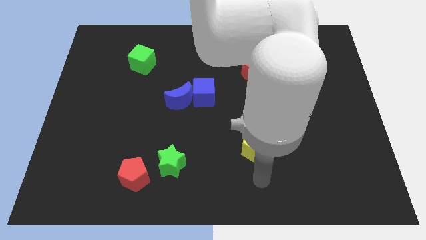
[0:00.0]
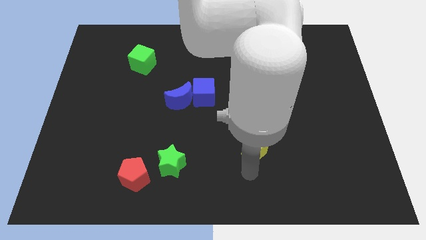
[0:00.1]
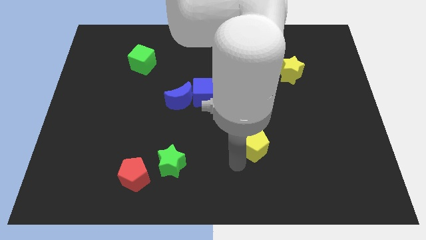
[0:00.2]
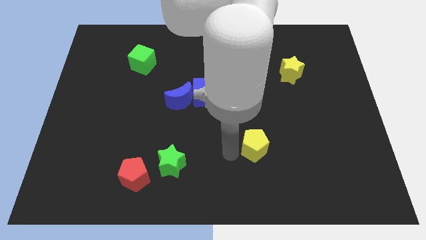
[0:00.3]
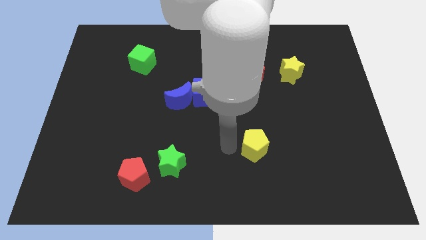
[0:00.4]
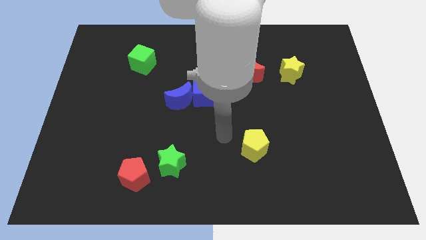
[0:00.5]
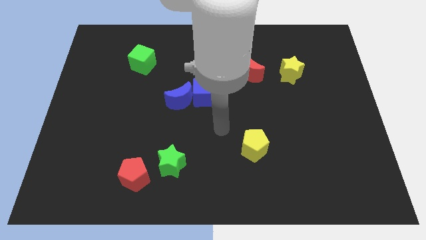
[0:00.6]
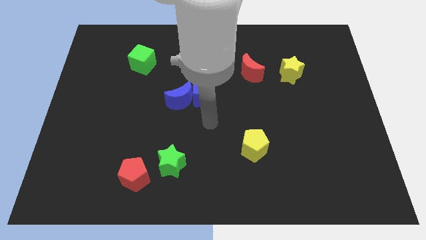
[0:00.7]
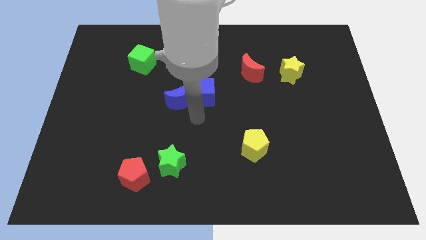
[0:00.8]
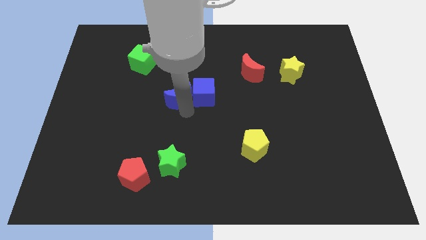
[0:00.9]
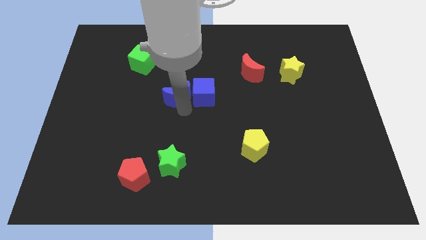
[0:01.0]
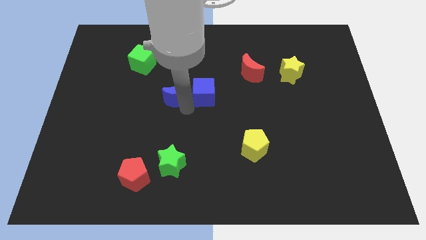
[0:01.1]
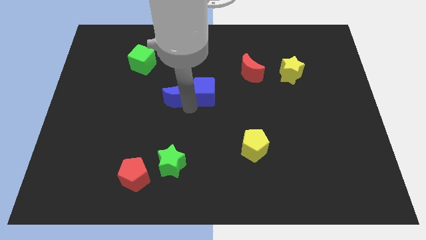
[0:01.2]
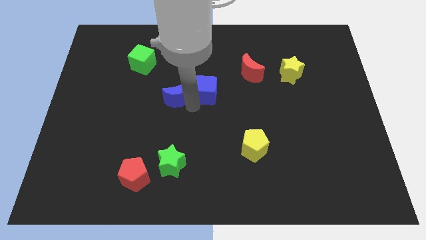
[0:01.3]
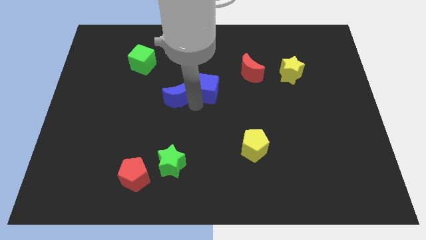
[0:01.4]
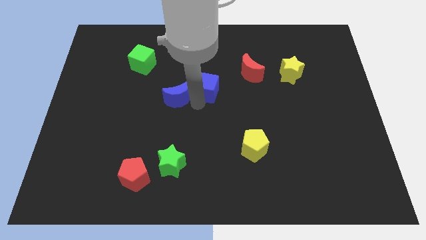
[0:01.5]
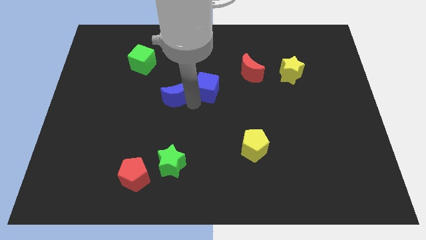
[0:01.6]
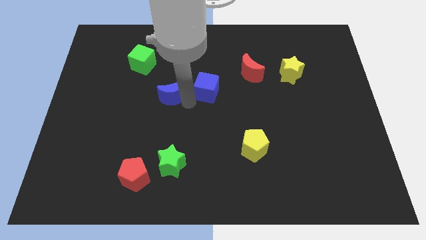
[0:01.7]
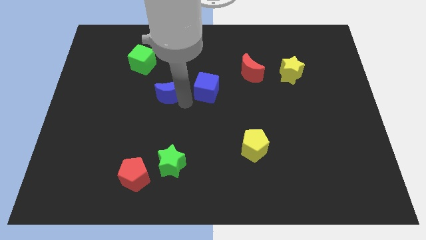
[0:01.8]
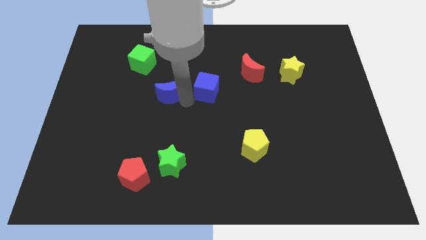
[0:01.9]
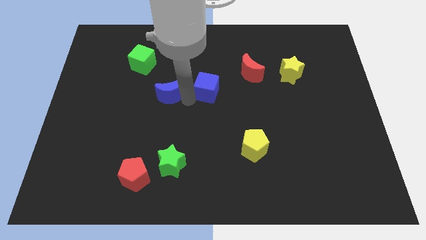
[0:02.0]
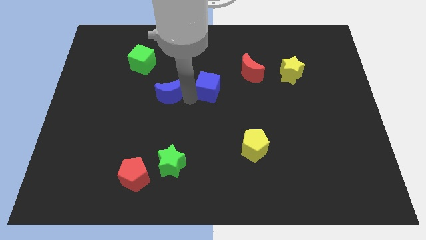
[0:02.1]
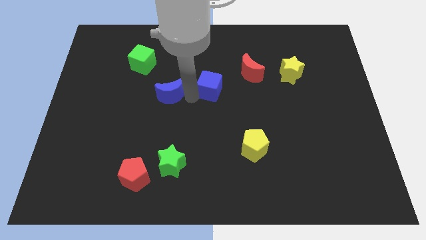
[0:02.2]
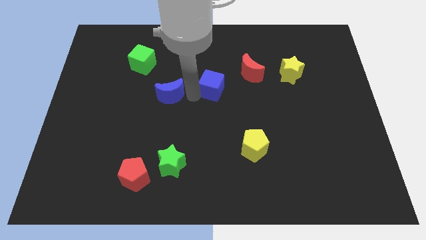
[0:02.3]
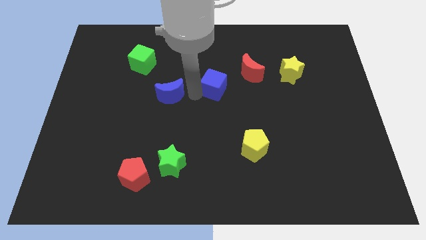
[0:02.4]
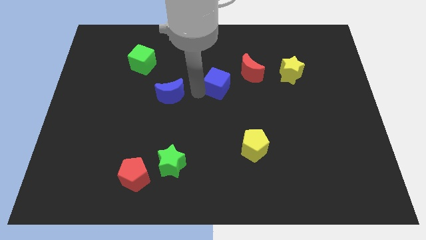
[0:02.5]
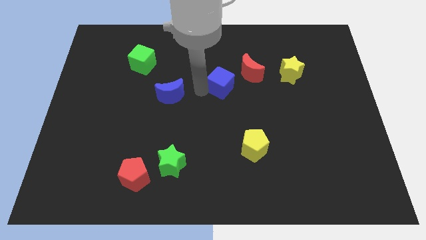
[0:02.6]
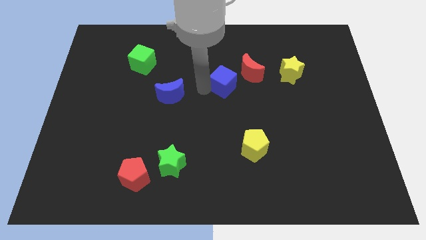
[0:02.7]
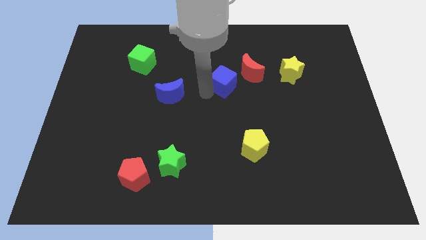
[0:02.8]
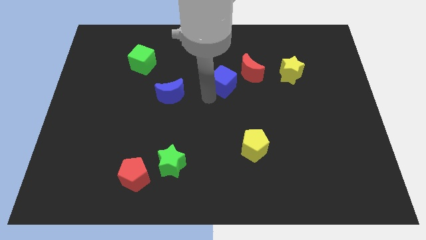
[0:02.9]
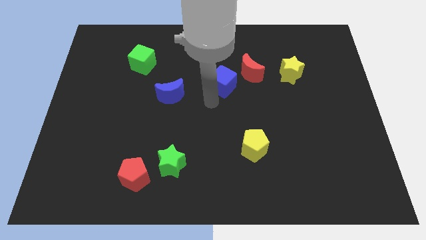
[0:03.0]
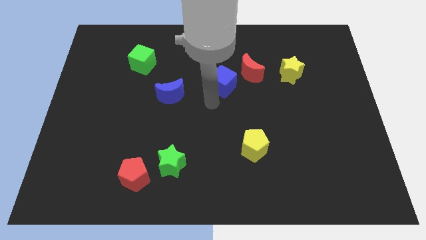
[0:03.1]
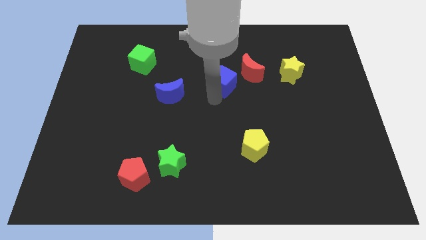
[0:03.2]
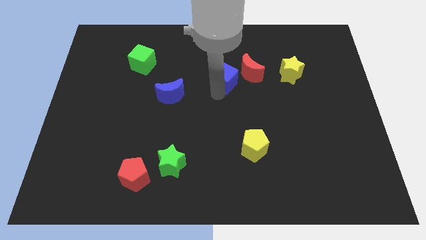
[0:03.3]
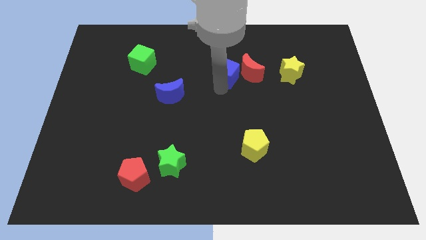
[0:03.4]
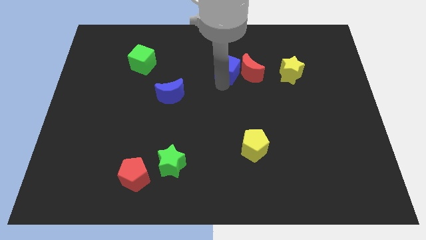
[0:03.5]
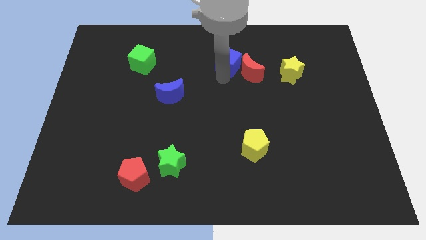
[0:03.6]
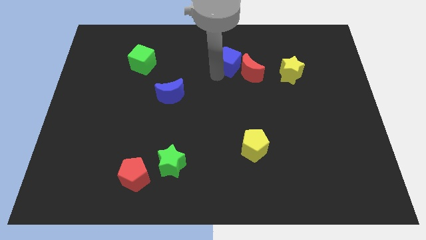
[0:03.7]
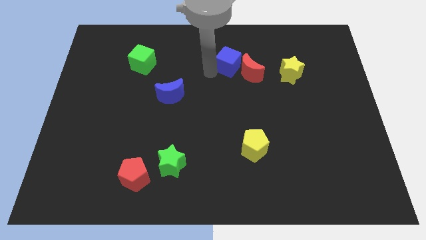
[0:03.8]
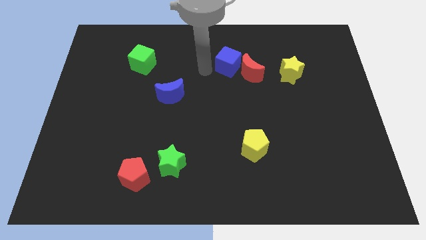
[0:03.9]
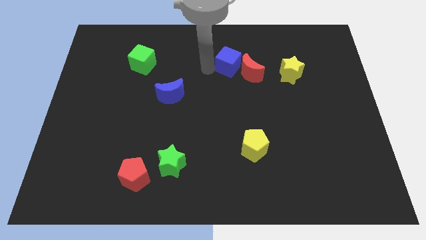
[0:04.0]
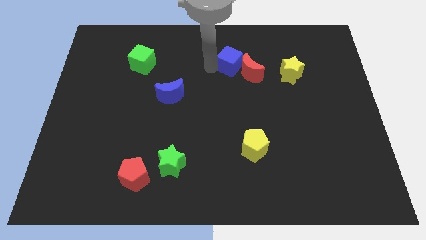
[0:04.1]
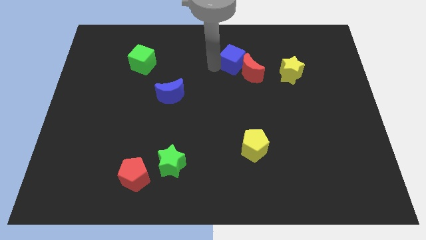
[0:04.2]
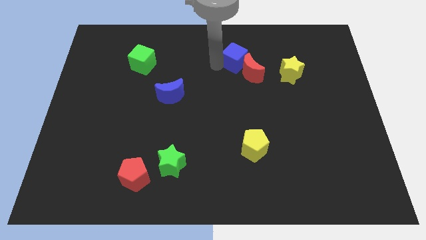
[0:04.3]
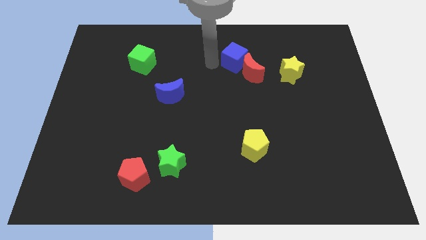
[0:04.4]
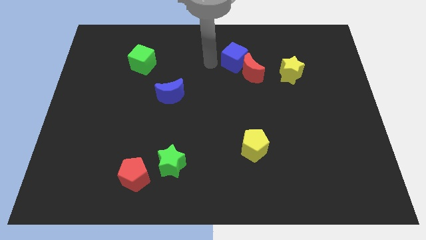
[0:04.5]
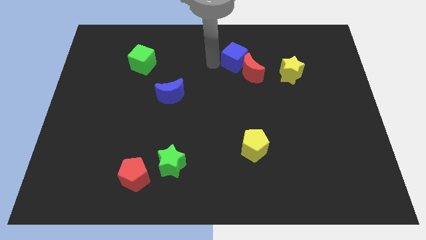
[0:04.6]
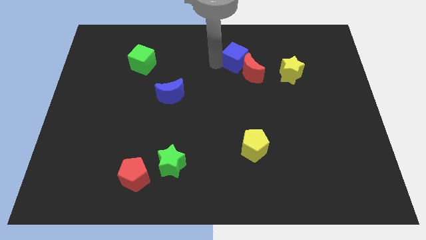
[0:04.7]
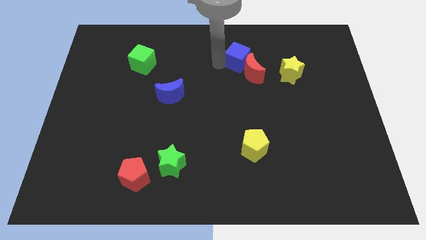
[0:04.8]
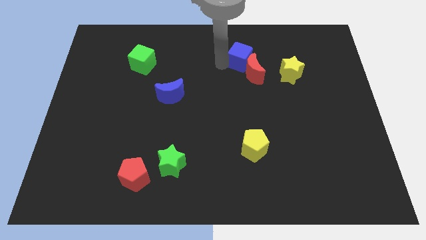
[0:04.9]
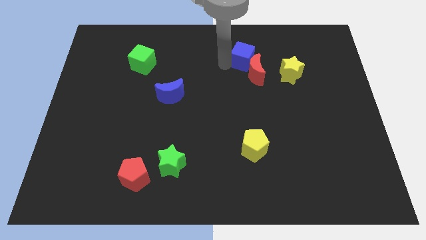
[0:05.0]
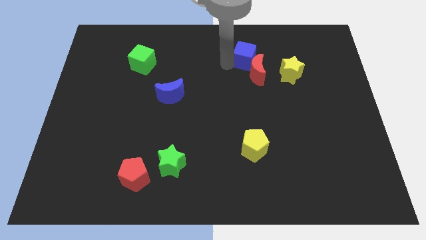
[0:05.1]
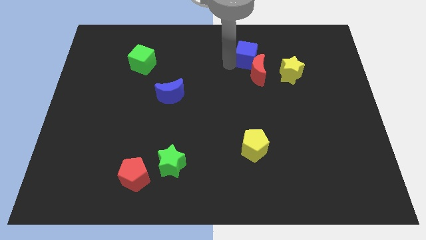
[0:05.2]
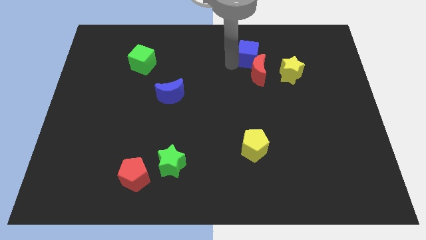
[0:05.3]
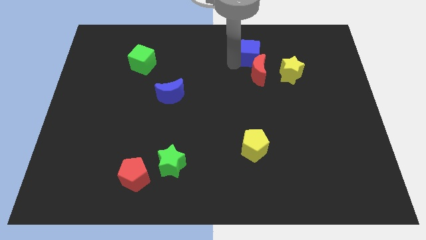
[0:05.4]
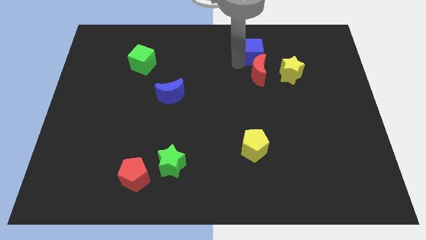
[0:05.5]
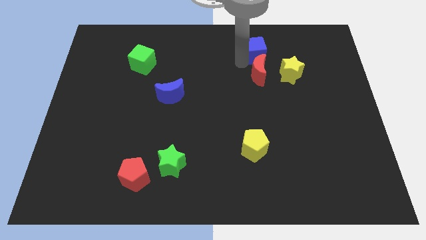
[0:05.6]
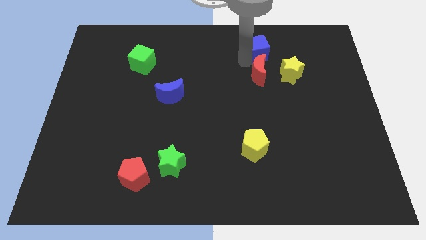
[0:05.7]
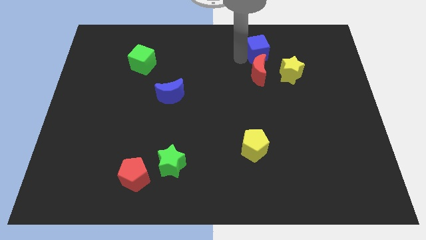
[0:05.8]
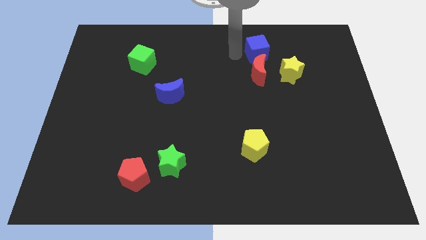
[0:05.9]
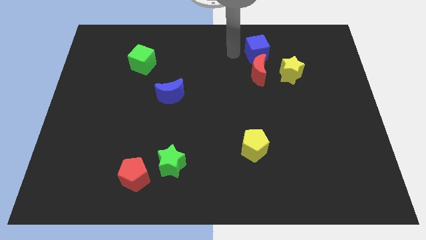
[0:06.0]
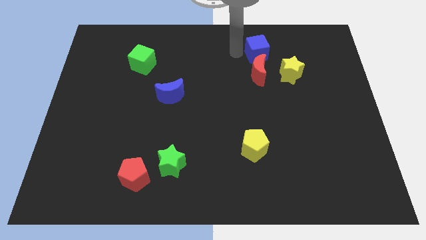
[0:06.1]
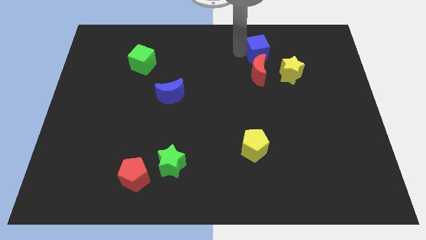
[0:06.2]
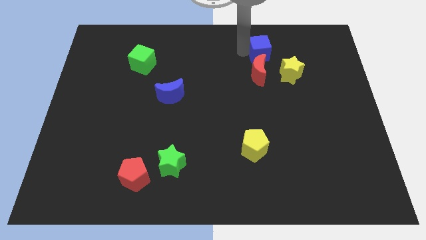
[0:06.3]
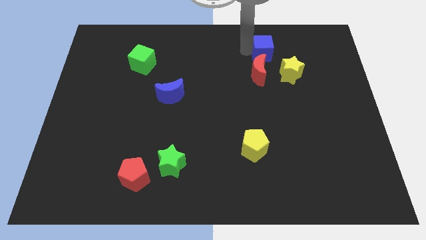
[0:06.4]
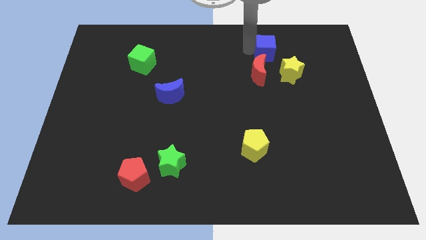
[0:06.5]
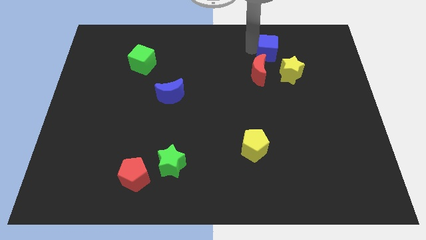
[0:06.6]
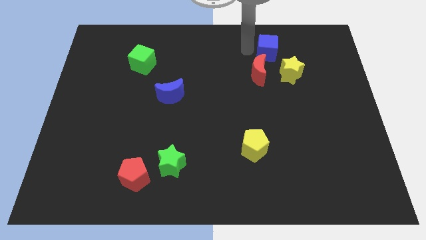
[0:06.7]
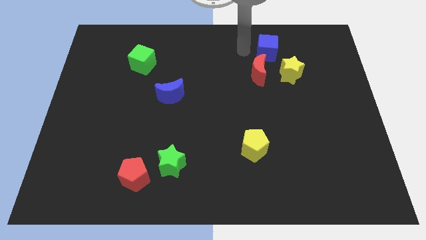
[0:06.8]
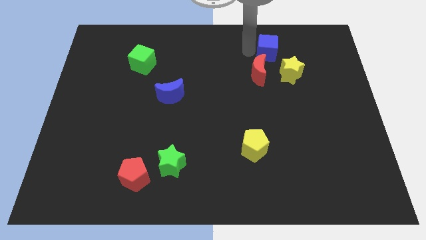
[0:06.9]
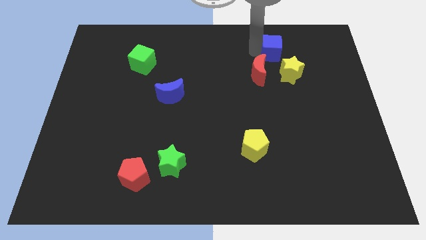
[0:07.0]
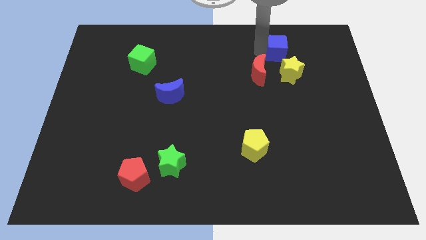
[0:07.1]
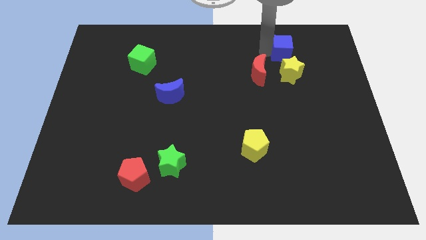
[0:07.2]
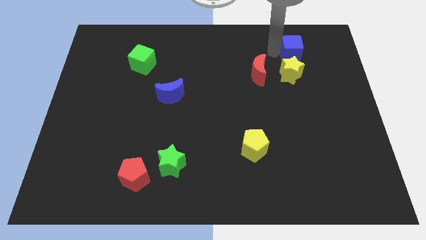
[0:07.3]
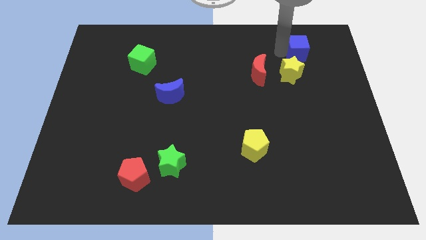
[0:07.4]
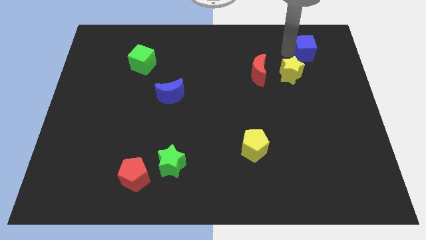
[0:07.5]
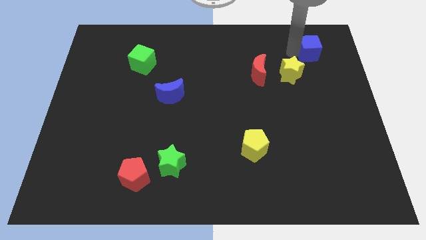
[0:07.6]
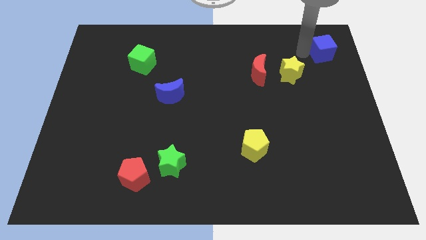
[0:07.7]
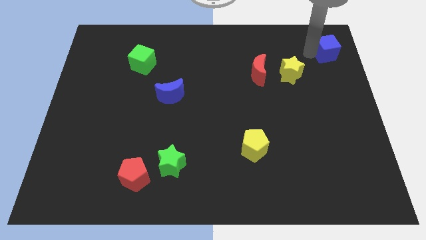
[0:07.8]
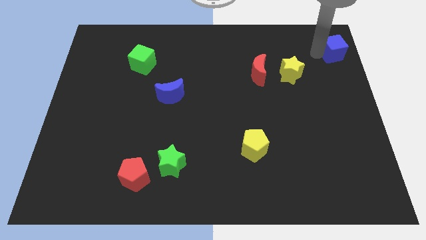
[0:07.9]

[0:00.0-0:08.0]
put the blue cube to the upper right corner

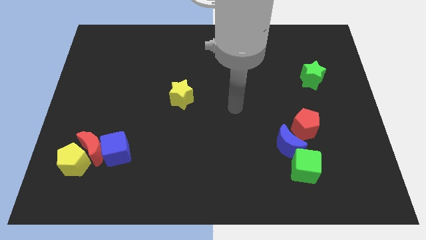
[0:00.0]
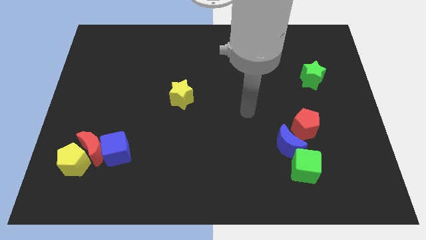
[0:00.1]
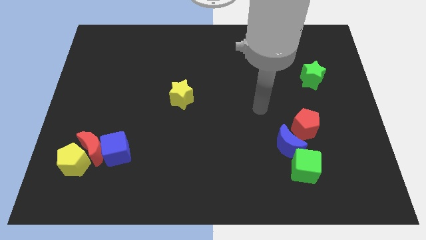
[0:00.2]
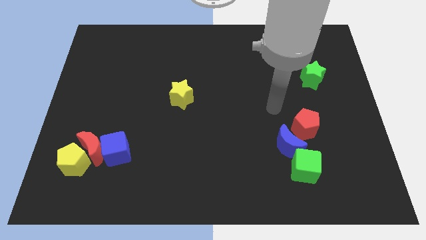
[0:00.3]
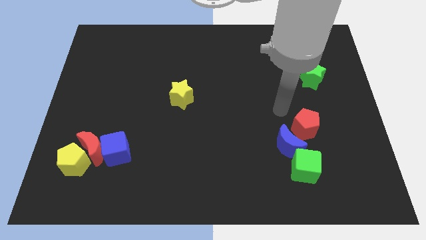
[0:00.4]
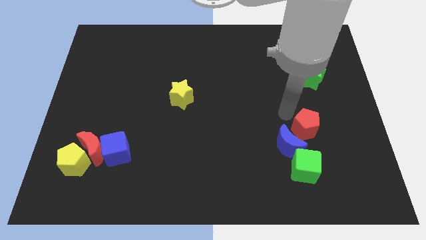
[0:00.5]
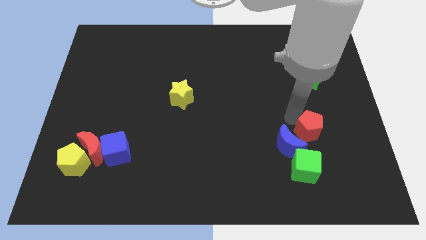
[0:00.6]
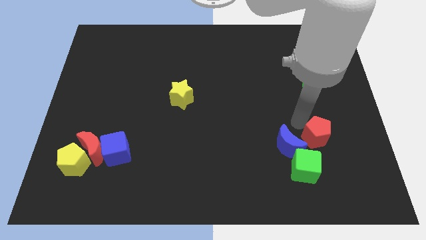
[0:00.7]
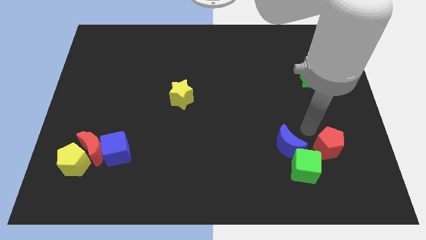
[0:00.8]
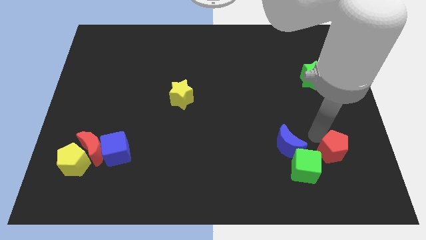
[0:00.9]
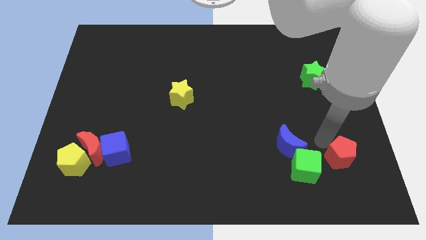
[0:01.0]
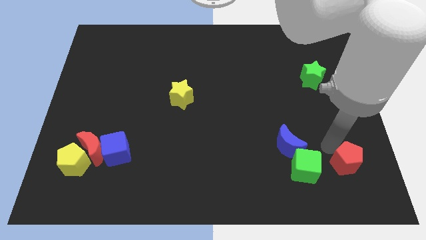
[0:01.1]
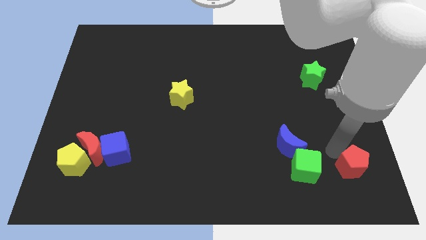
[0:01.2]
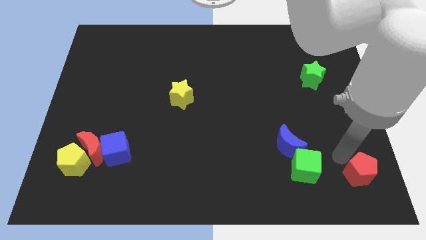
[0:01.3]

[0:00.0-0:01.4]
put the red pentagon to the bottom right
